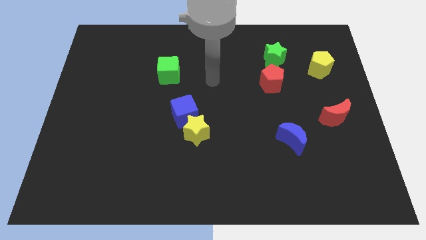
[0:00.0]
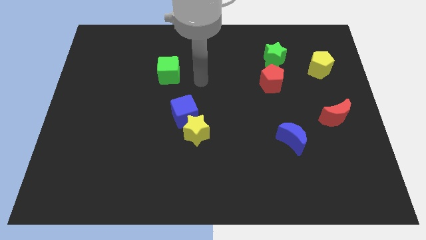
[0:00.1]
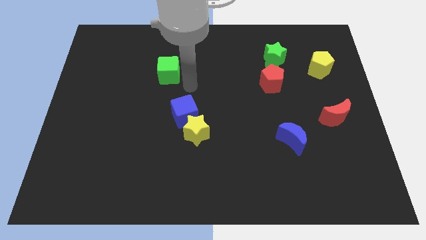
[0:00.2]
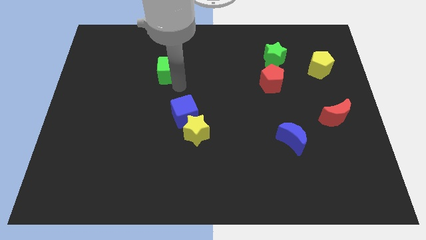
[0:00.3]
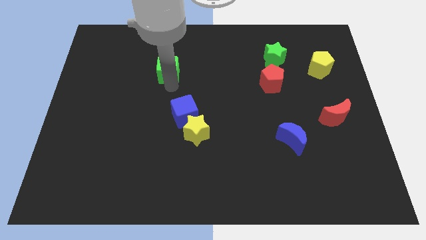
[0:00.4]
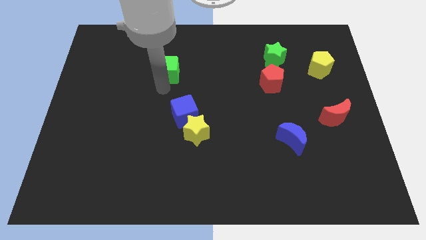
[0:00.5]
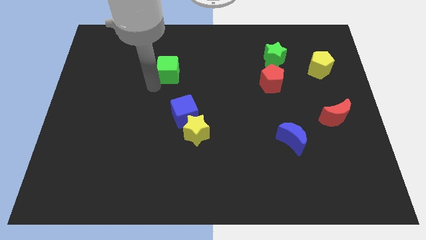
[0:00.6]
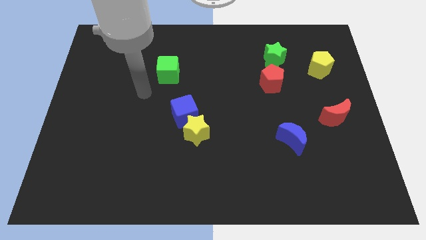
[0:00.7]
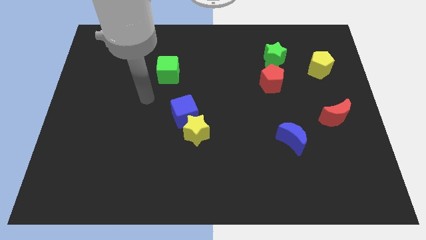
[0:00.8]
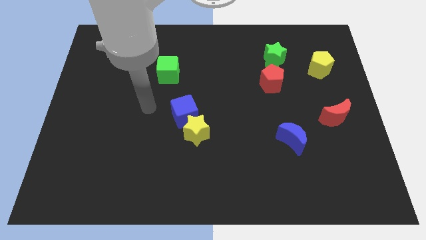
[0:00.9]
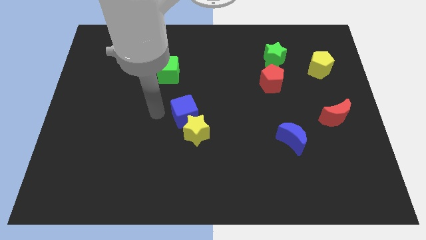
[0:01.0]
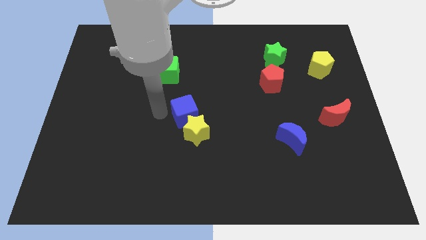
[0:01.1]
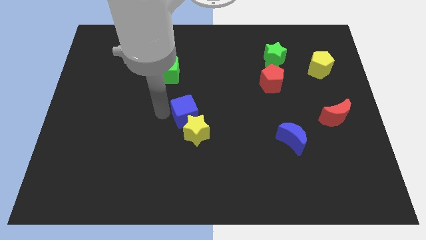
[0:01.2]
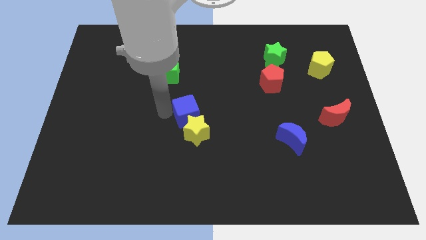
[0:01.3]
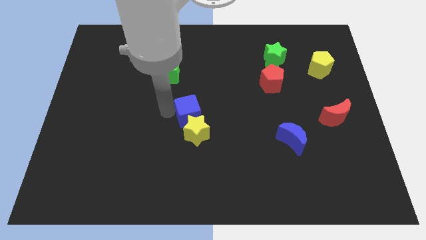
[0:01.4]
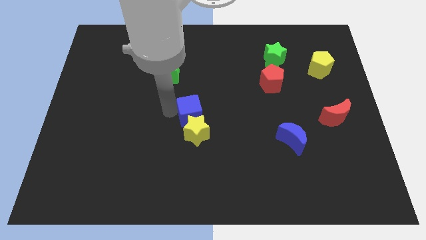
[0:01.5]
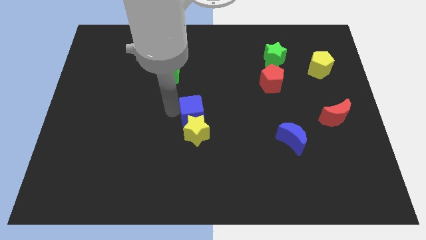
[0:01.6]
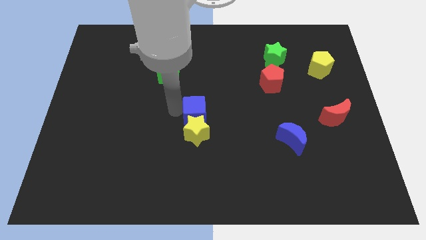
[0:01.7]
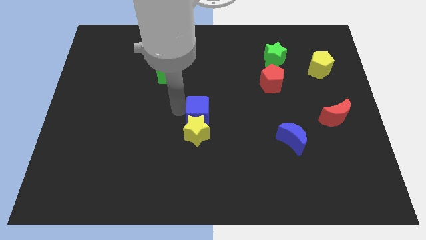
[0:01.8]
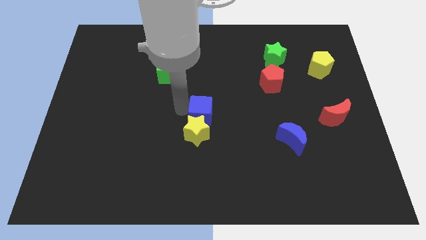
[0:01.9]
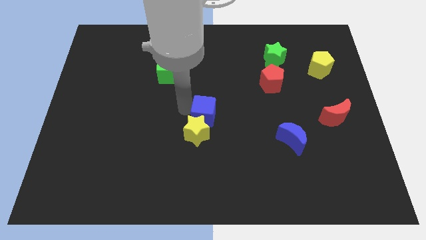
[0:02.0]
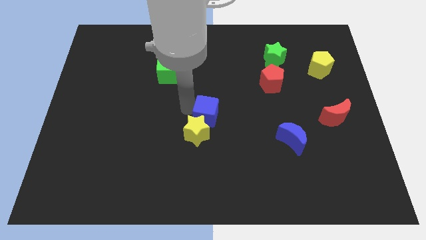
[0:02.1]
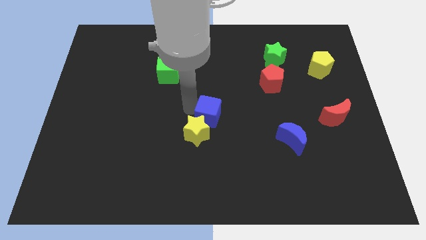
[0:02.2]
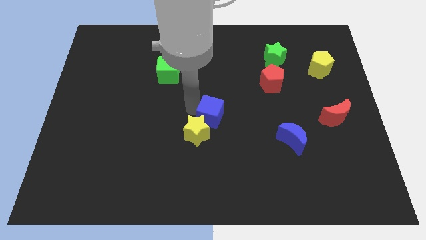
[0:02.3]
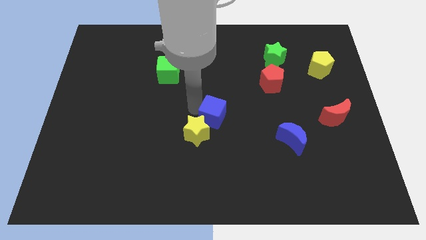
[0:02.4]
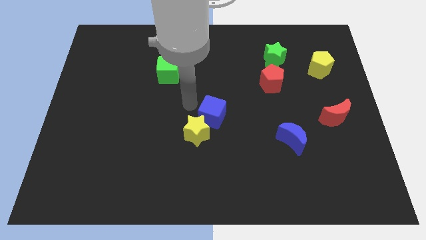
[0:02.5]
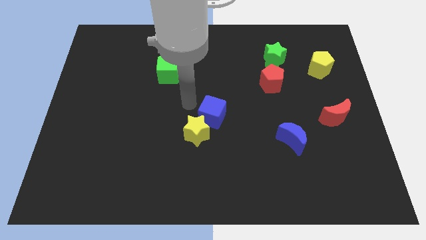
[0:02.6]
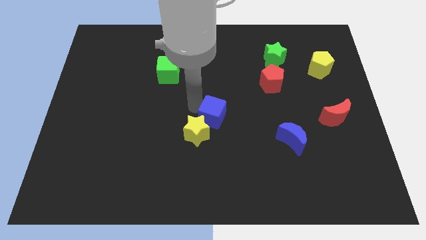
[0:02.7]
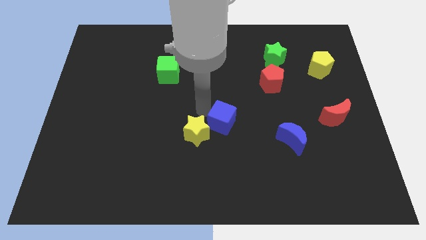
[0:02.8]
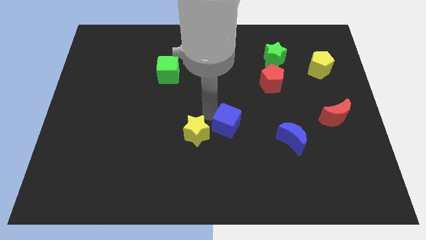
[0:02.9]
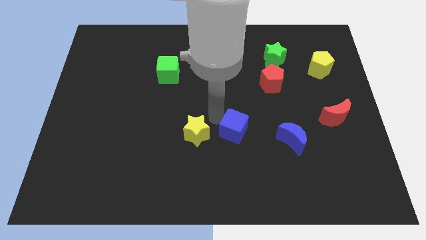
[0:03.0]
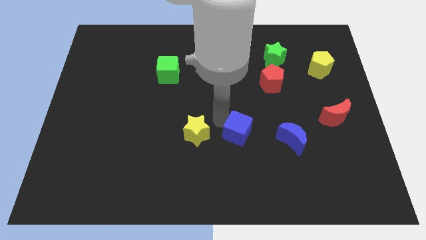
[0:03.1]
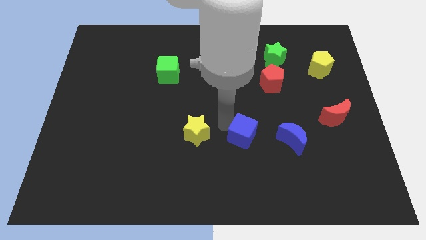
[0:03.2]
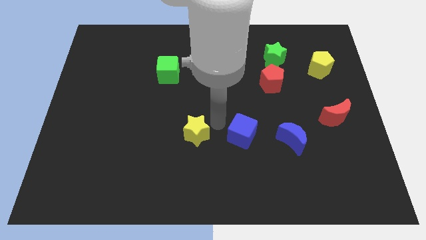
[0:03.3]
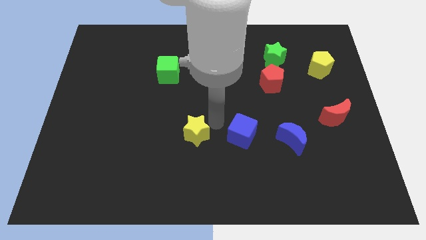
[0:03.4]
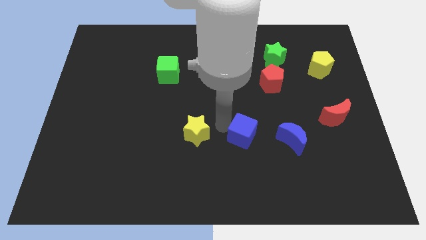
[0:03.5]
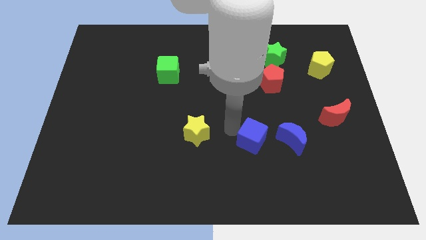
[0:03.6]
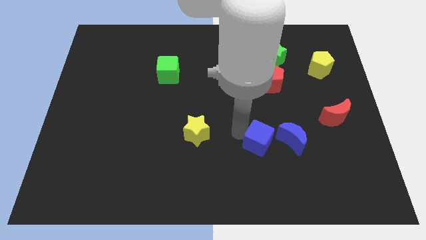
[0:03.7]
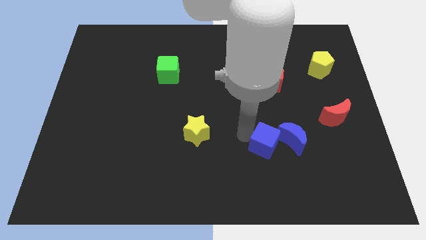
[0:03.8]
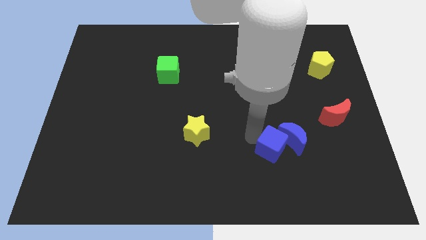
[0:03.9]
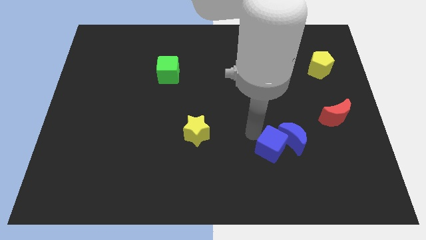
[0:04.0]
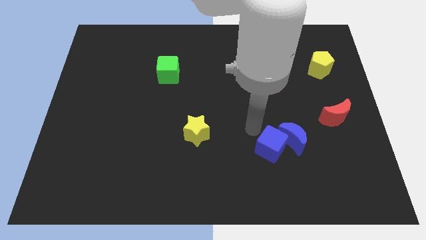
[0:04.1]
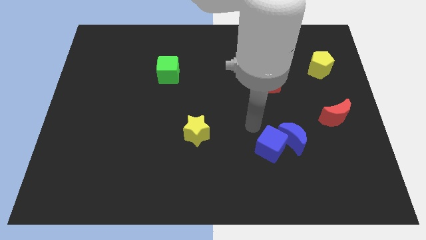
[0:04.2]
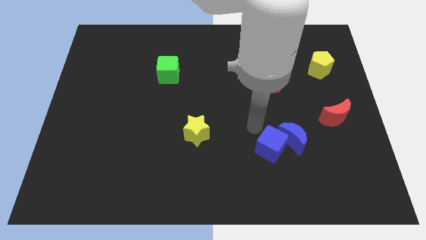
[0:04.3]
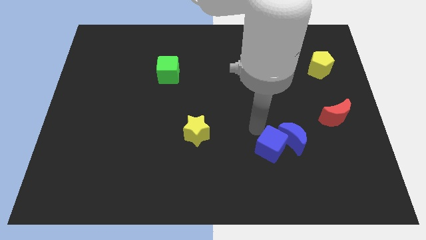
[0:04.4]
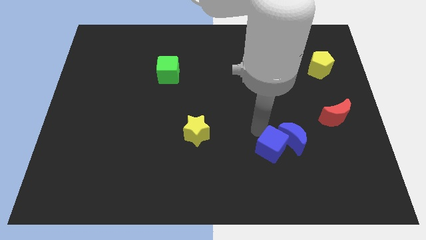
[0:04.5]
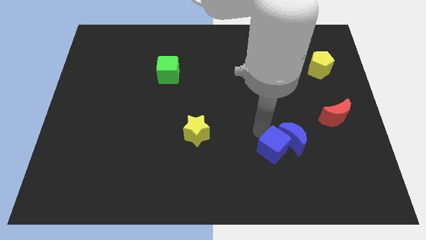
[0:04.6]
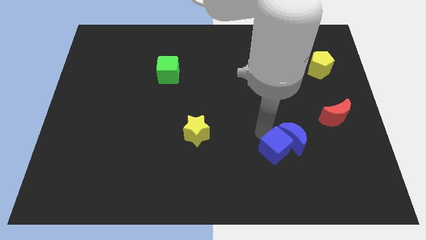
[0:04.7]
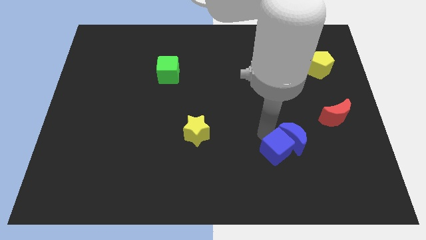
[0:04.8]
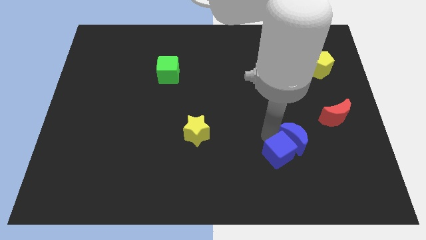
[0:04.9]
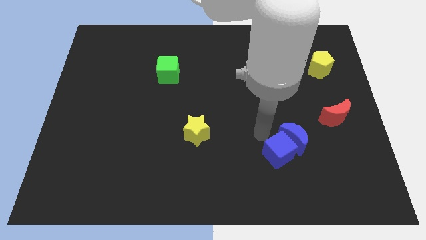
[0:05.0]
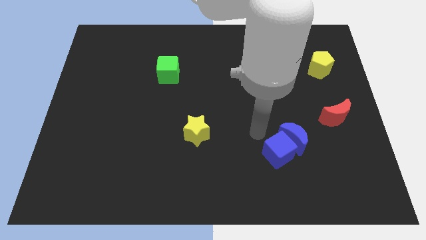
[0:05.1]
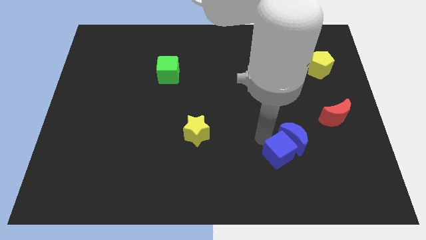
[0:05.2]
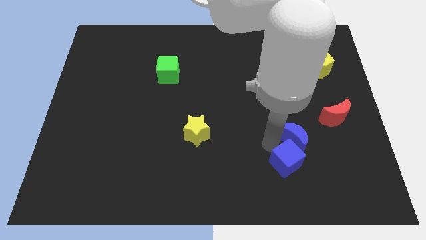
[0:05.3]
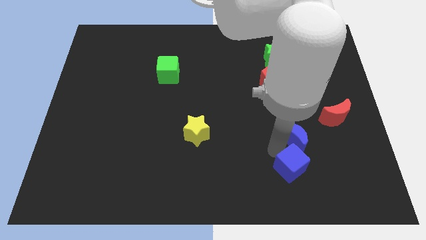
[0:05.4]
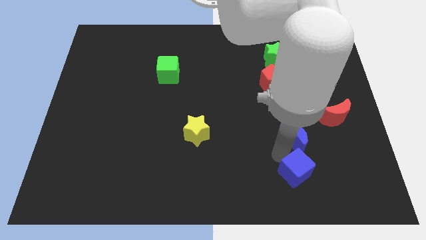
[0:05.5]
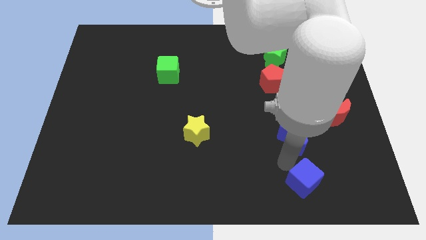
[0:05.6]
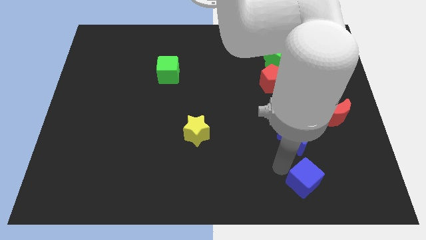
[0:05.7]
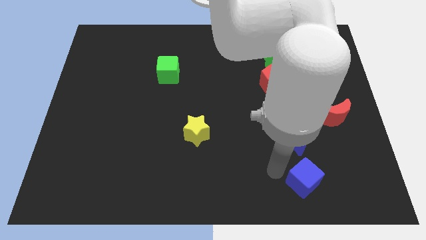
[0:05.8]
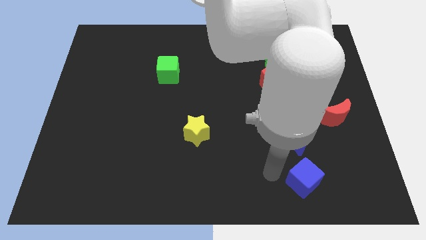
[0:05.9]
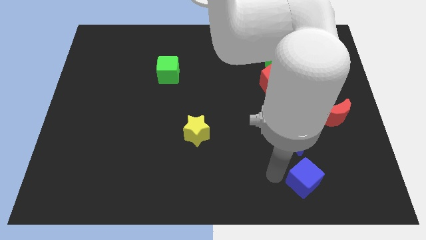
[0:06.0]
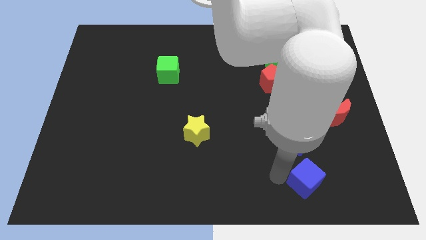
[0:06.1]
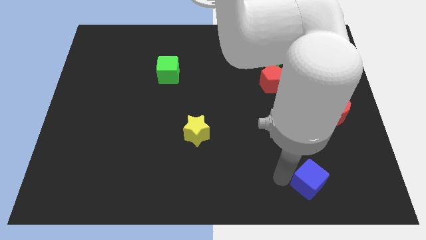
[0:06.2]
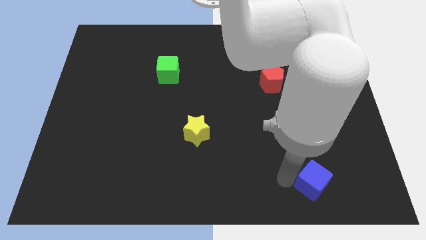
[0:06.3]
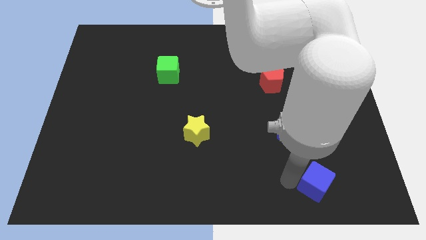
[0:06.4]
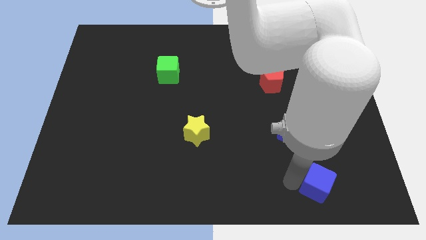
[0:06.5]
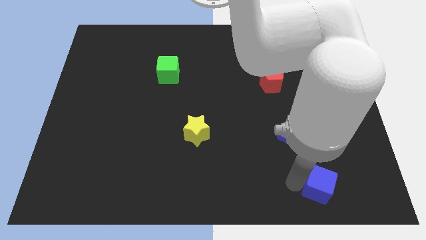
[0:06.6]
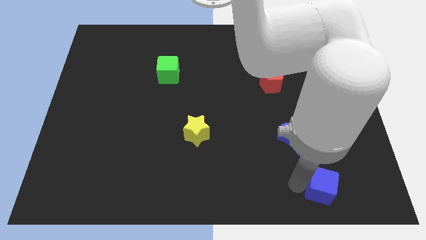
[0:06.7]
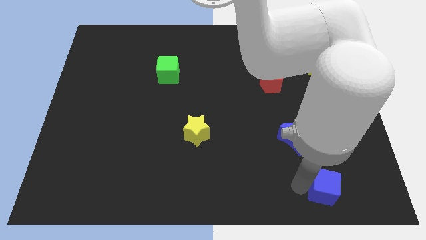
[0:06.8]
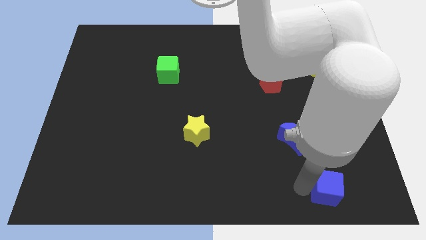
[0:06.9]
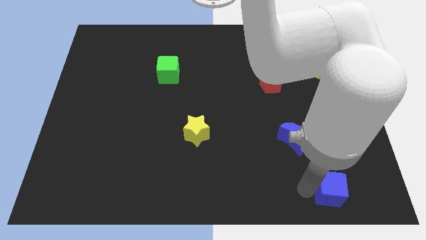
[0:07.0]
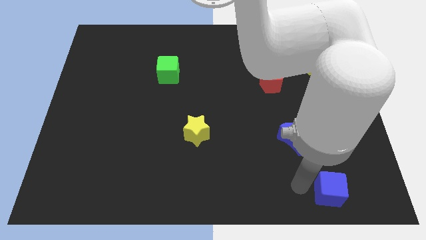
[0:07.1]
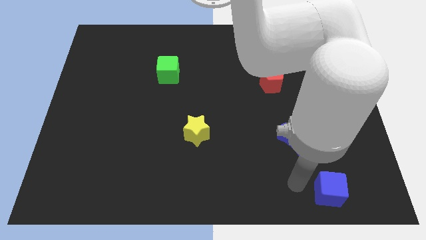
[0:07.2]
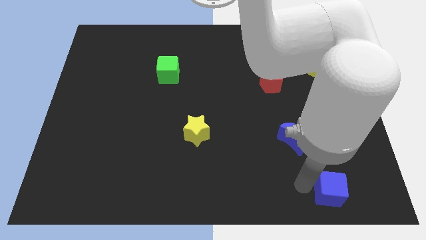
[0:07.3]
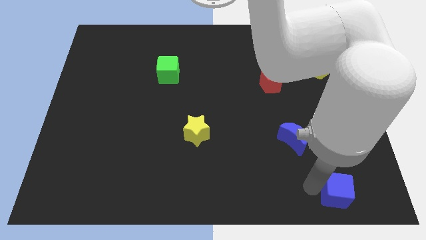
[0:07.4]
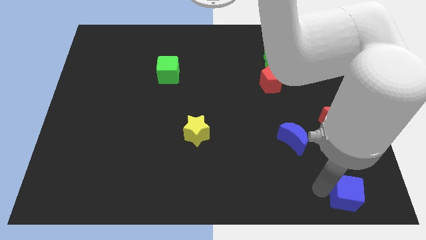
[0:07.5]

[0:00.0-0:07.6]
slide the blue cube to the lower right corner
